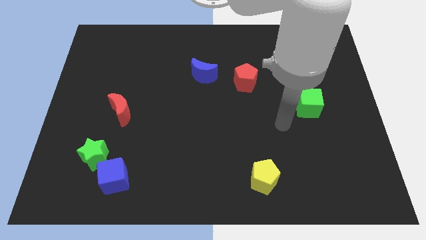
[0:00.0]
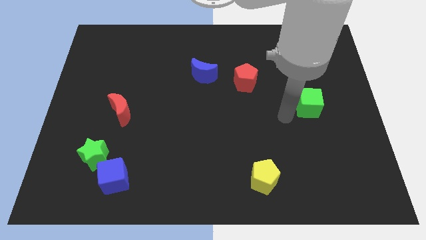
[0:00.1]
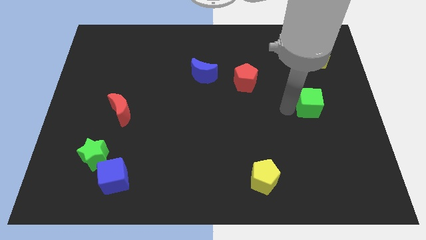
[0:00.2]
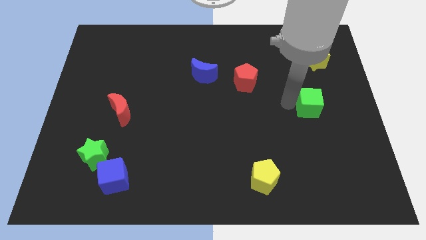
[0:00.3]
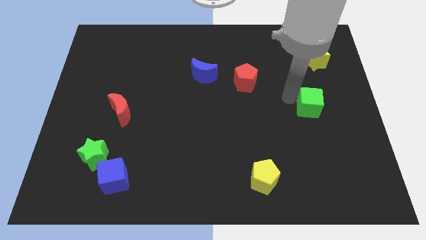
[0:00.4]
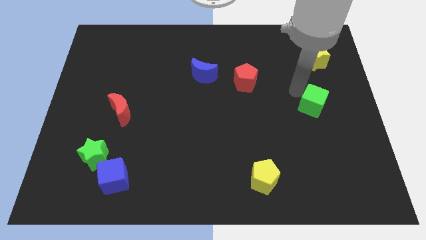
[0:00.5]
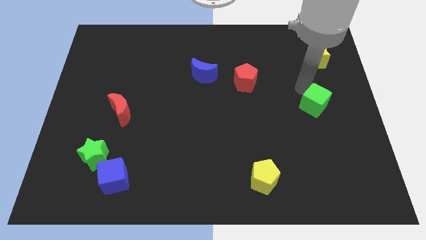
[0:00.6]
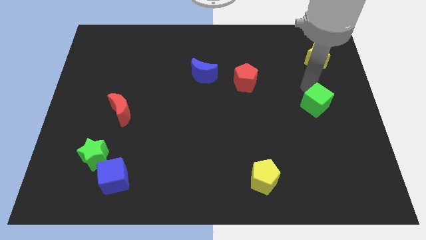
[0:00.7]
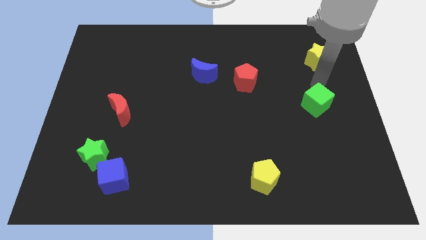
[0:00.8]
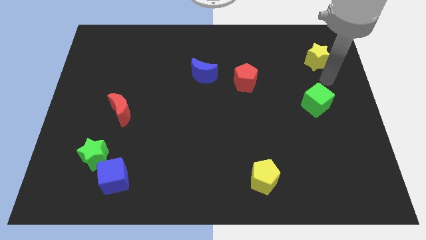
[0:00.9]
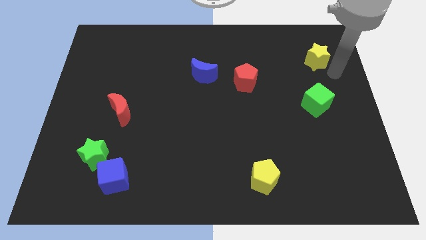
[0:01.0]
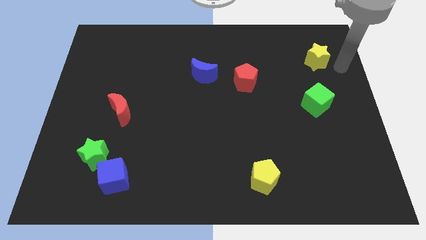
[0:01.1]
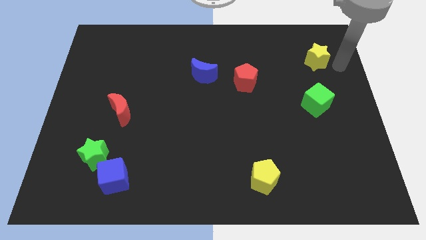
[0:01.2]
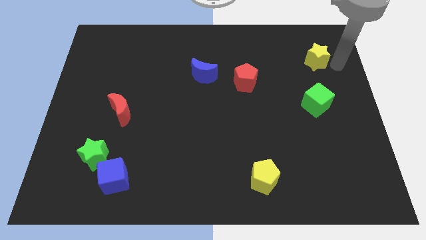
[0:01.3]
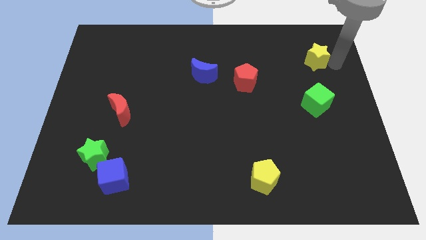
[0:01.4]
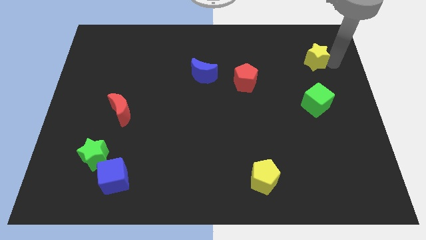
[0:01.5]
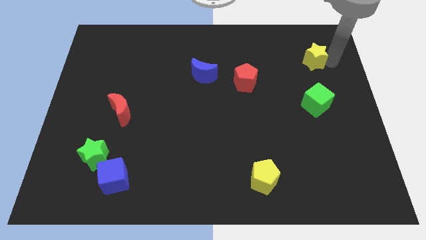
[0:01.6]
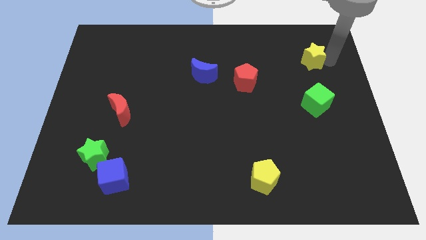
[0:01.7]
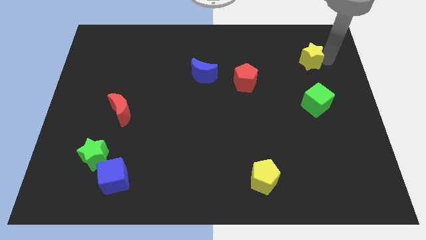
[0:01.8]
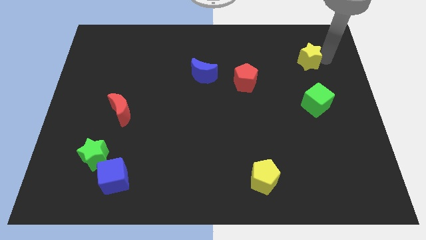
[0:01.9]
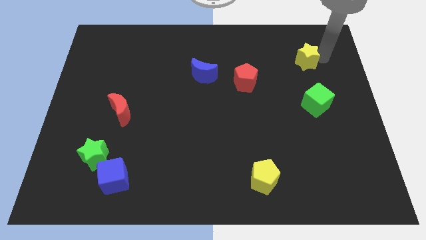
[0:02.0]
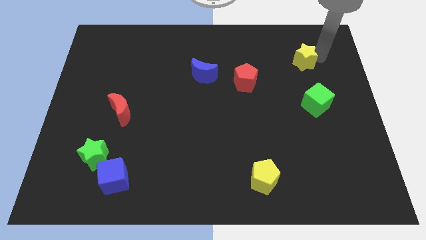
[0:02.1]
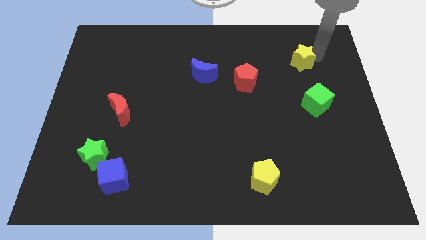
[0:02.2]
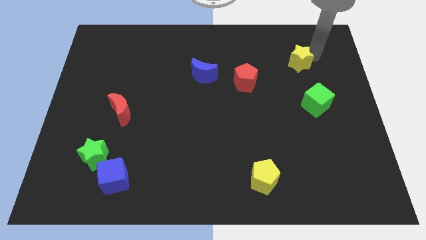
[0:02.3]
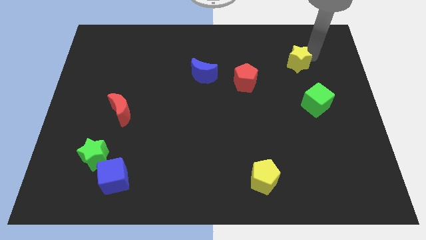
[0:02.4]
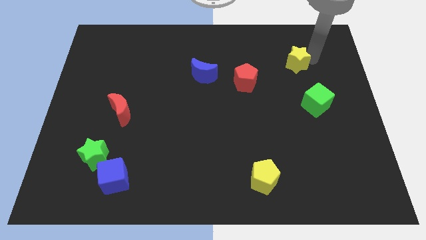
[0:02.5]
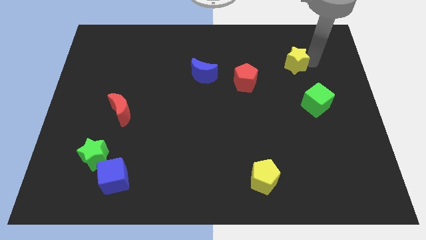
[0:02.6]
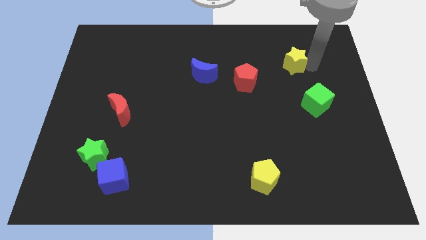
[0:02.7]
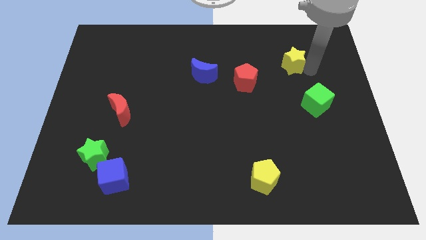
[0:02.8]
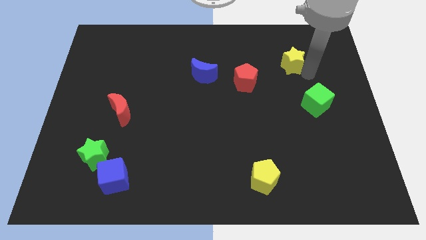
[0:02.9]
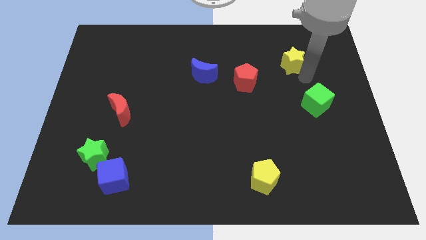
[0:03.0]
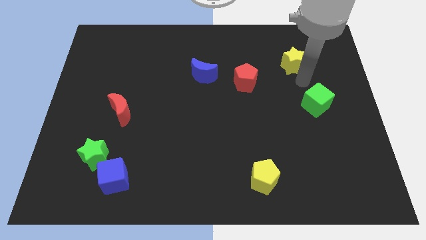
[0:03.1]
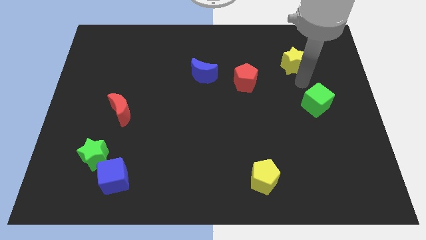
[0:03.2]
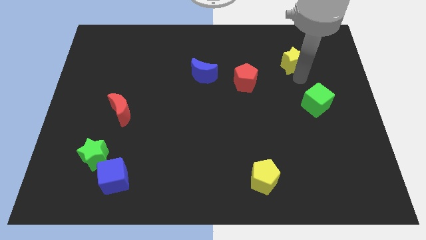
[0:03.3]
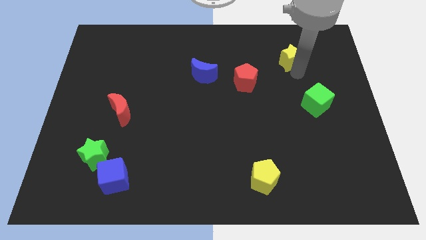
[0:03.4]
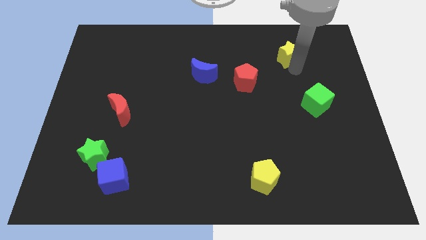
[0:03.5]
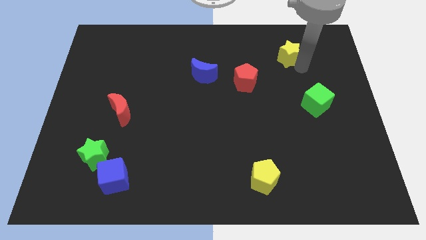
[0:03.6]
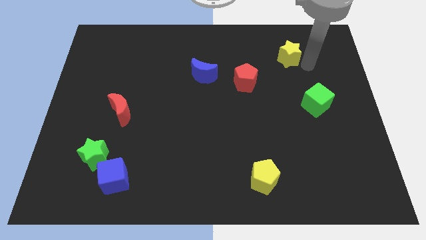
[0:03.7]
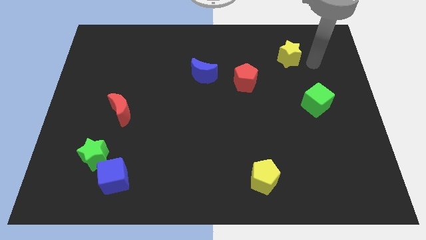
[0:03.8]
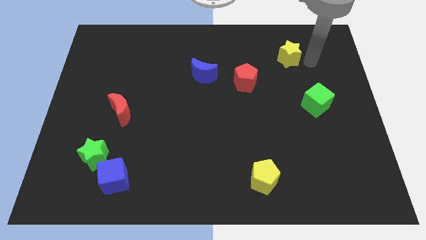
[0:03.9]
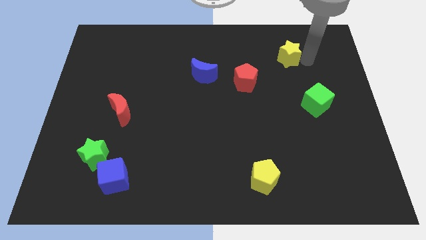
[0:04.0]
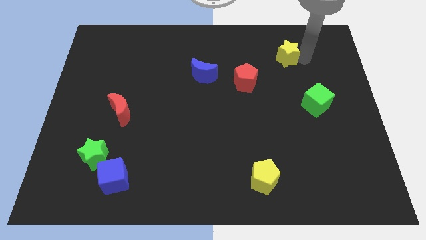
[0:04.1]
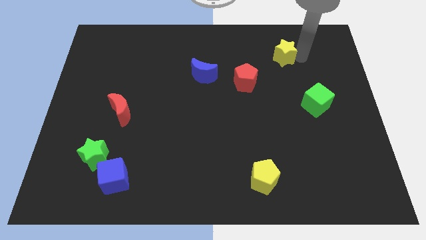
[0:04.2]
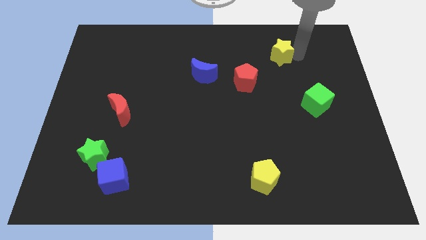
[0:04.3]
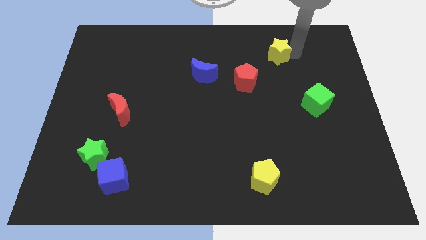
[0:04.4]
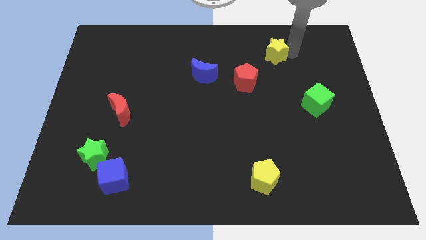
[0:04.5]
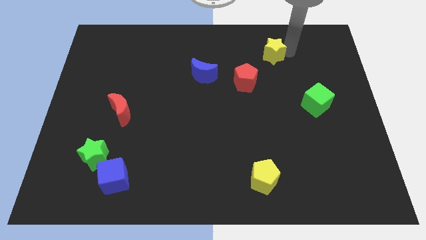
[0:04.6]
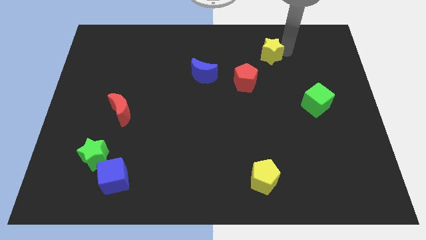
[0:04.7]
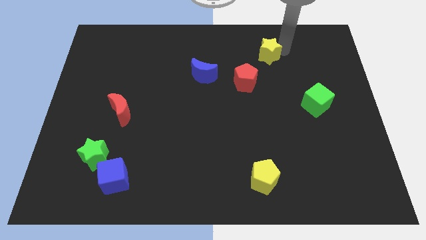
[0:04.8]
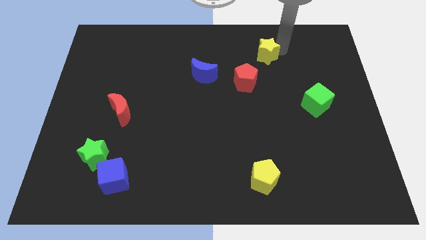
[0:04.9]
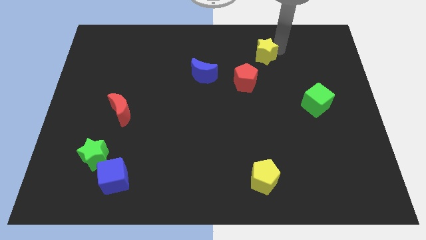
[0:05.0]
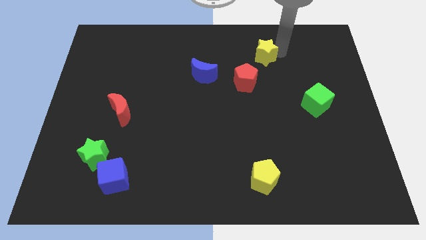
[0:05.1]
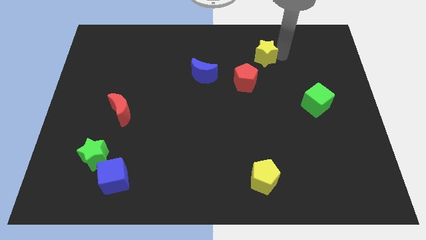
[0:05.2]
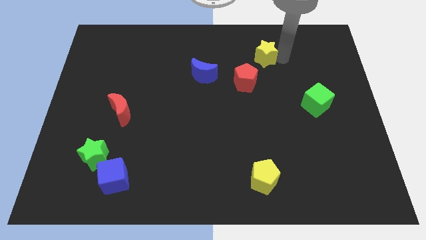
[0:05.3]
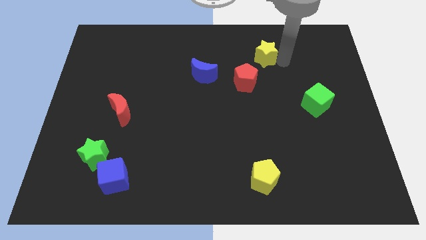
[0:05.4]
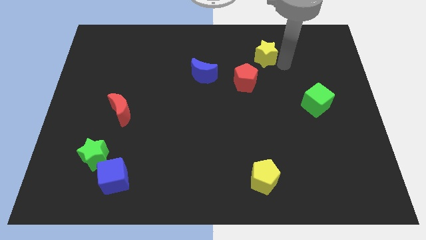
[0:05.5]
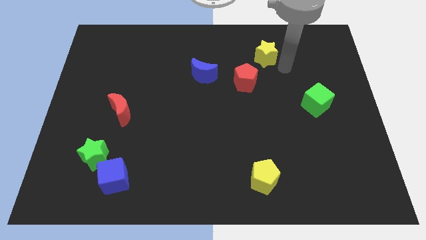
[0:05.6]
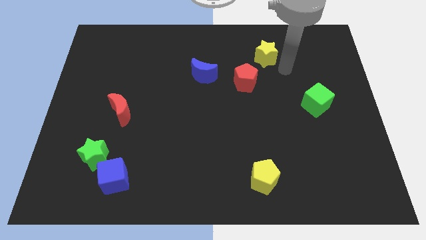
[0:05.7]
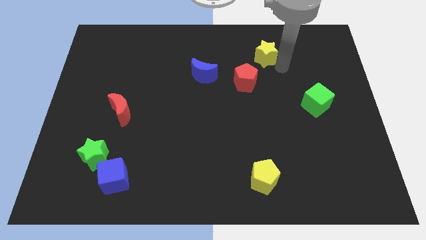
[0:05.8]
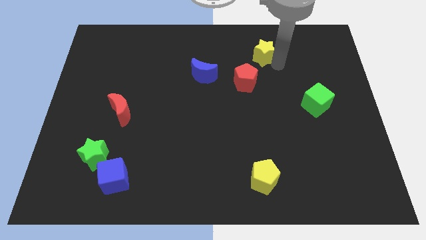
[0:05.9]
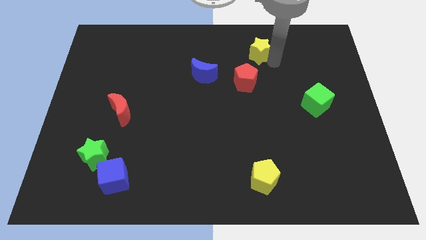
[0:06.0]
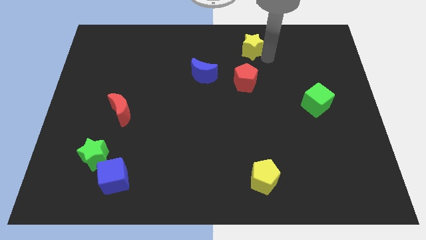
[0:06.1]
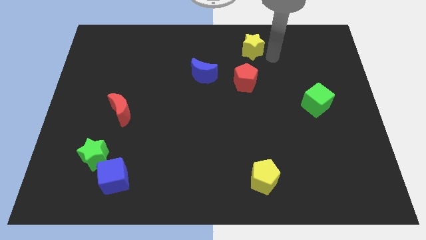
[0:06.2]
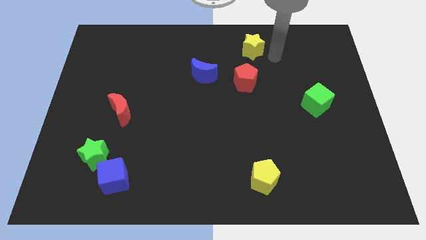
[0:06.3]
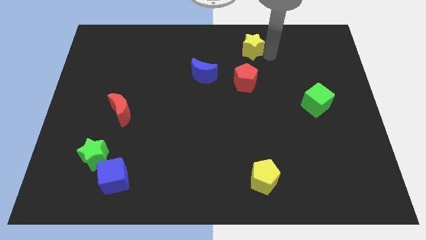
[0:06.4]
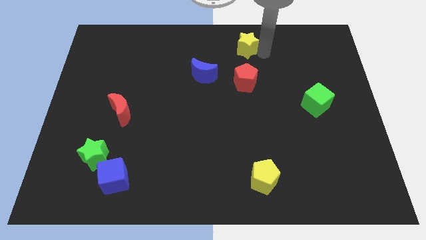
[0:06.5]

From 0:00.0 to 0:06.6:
put the yellow star to the towards your base
